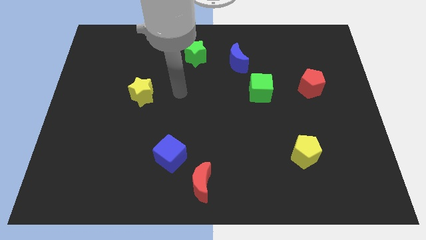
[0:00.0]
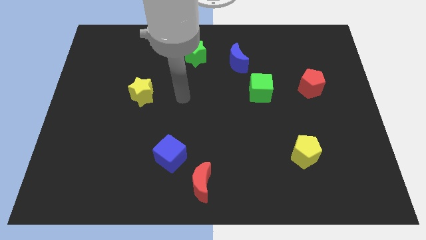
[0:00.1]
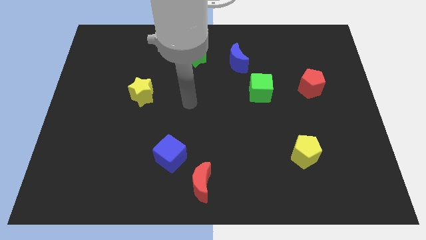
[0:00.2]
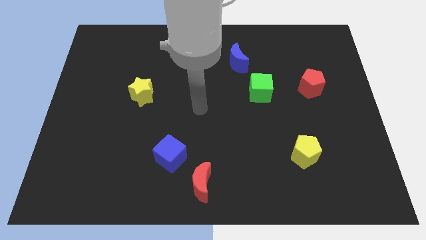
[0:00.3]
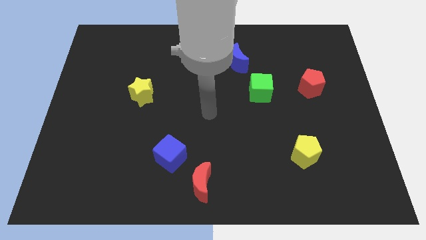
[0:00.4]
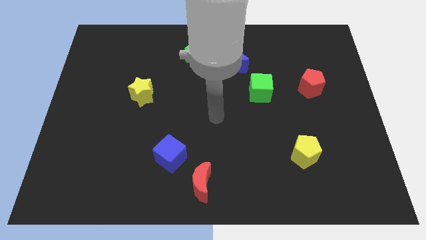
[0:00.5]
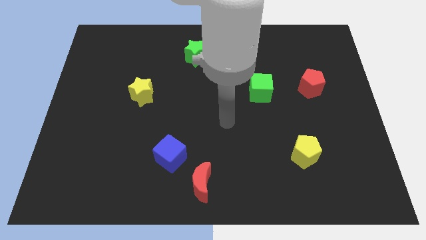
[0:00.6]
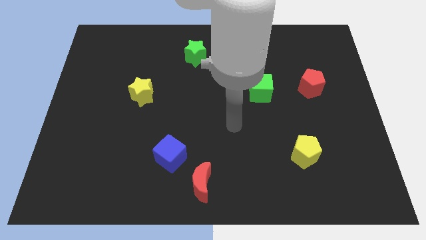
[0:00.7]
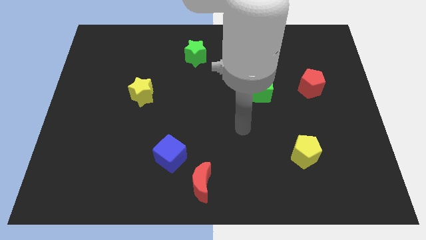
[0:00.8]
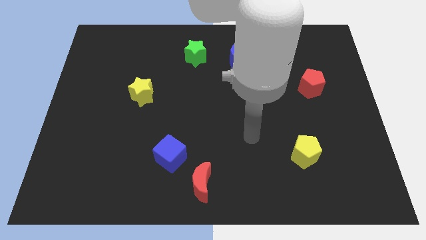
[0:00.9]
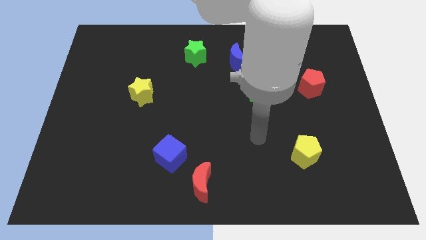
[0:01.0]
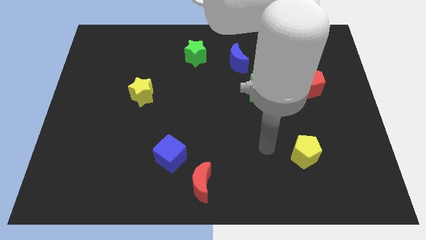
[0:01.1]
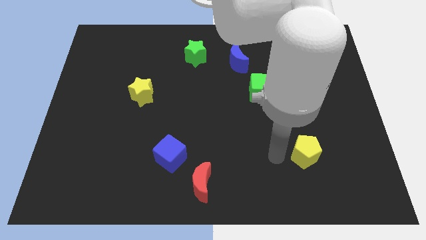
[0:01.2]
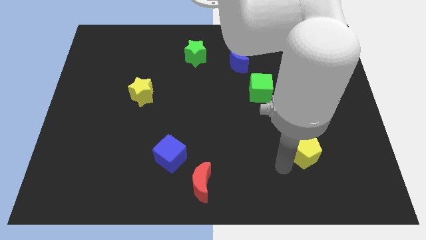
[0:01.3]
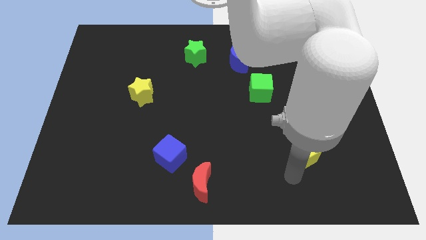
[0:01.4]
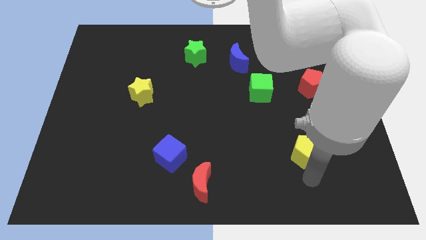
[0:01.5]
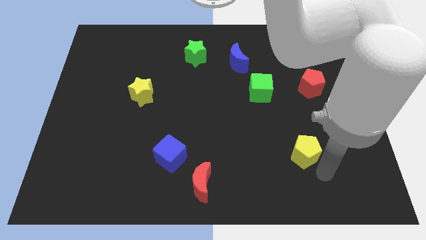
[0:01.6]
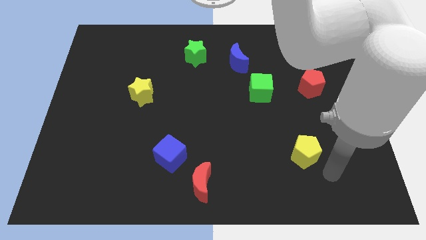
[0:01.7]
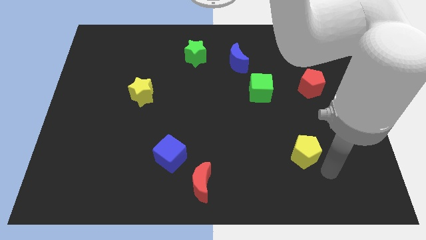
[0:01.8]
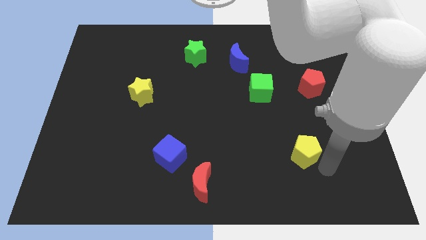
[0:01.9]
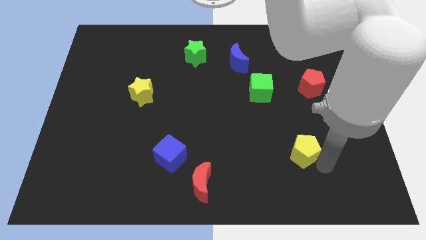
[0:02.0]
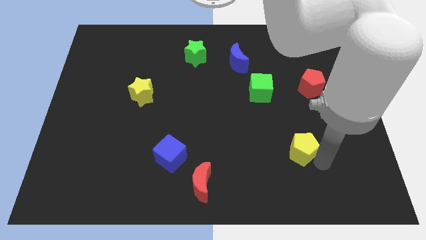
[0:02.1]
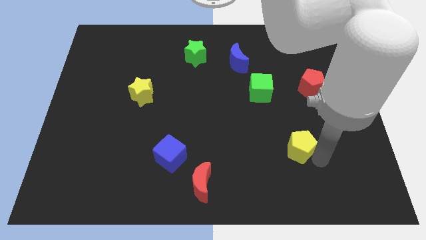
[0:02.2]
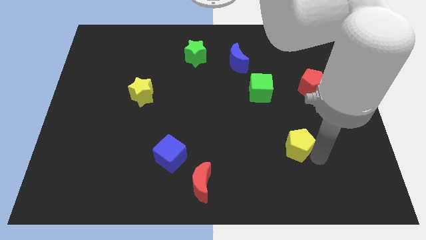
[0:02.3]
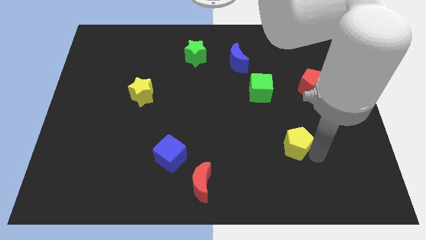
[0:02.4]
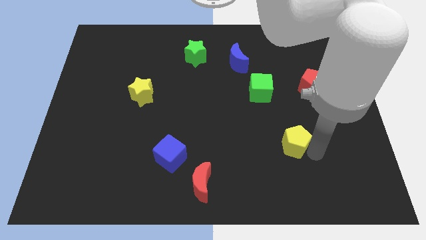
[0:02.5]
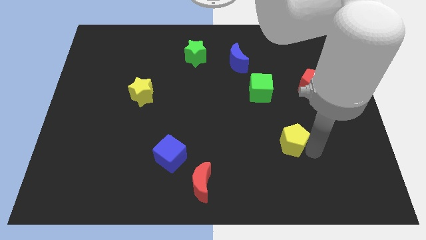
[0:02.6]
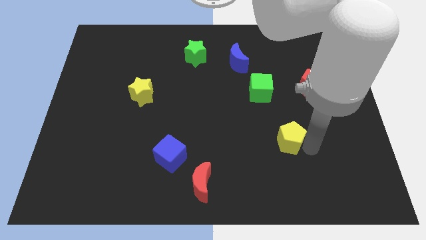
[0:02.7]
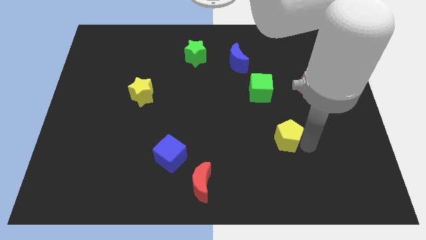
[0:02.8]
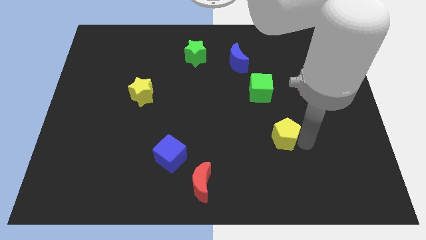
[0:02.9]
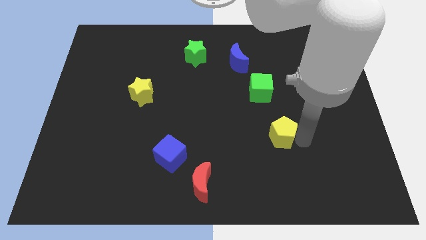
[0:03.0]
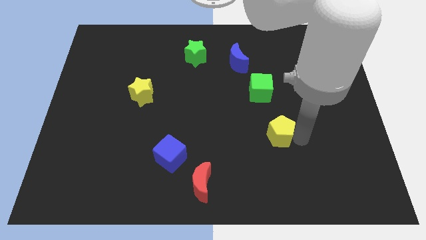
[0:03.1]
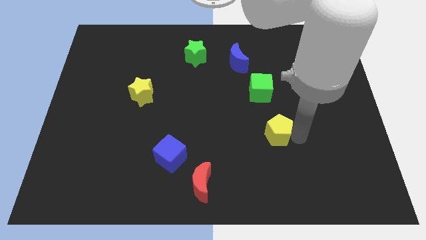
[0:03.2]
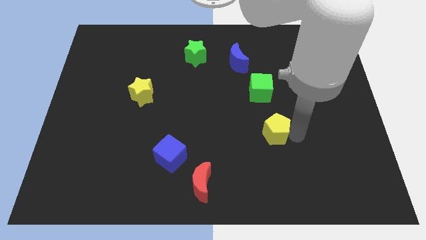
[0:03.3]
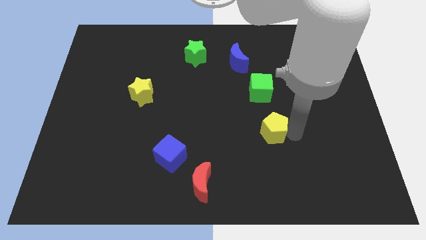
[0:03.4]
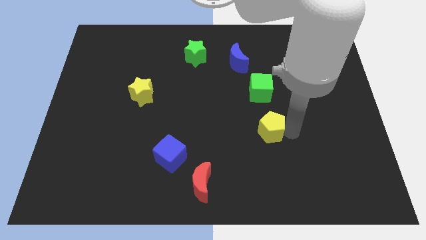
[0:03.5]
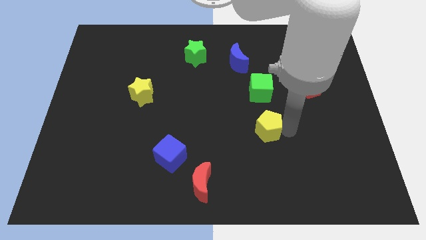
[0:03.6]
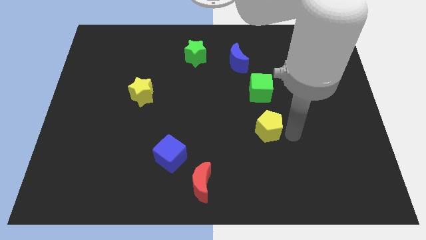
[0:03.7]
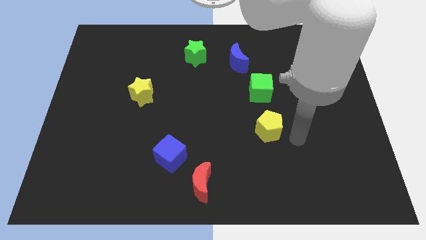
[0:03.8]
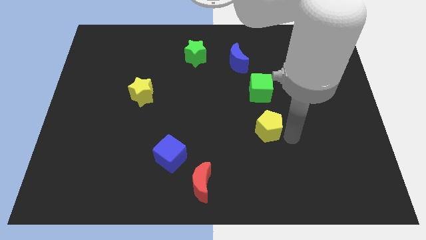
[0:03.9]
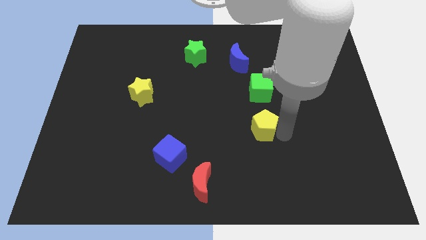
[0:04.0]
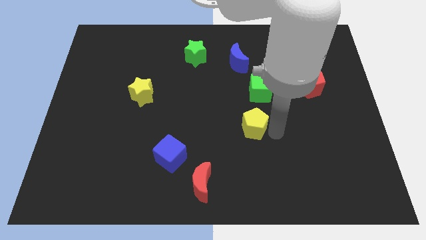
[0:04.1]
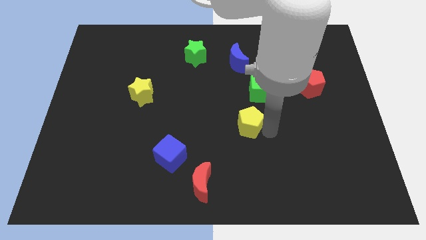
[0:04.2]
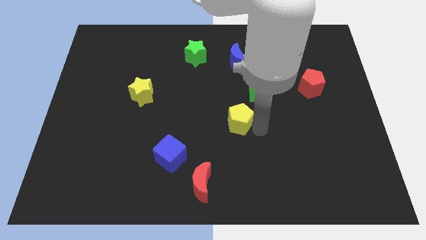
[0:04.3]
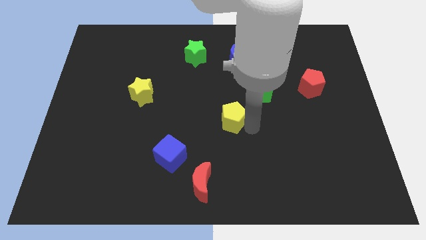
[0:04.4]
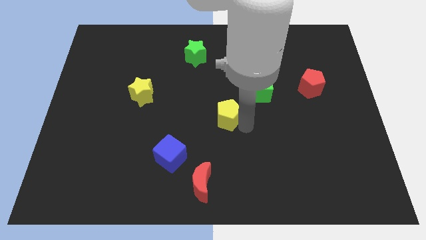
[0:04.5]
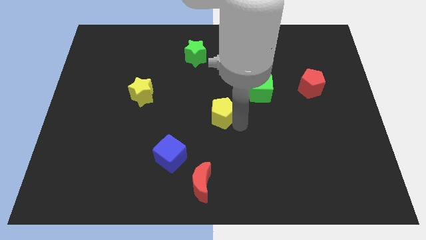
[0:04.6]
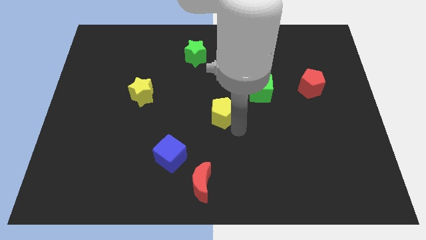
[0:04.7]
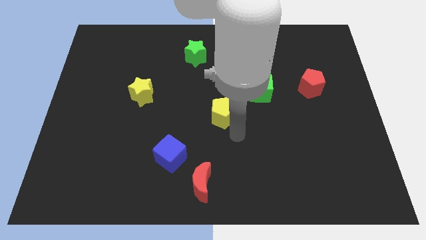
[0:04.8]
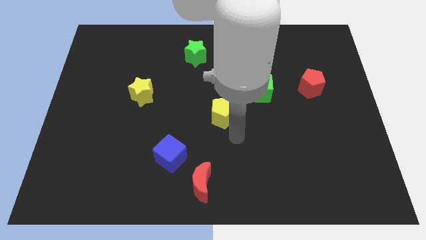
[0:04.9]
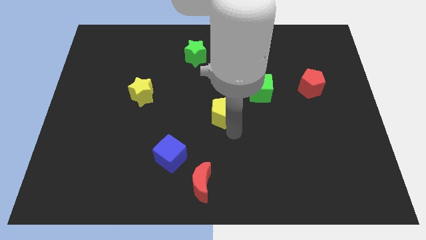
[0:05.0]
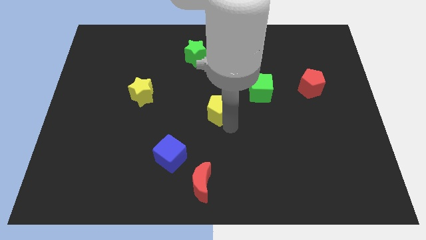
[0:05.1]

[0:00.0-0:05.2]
push the yellow pentagon up and then left

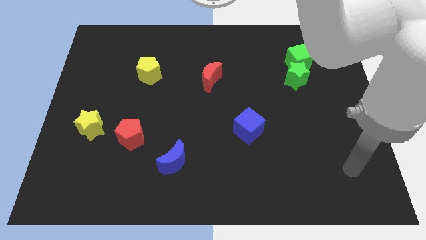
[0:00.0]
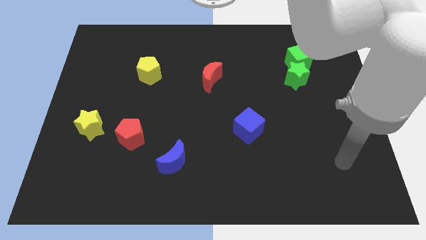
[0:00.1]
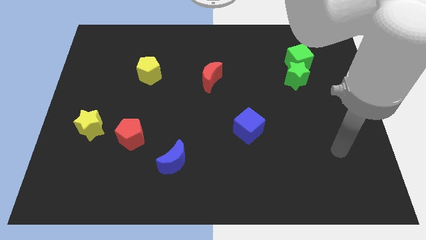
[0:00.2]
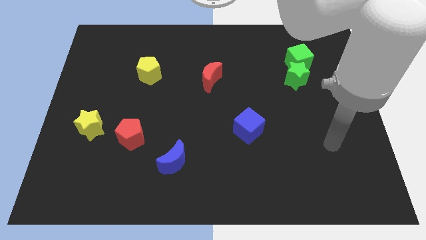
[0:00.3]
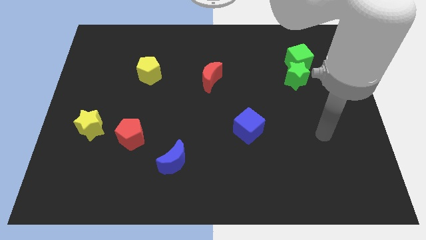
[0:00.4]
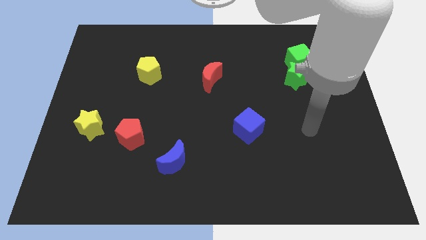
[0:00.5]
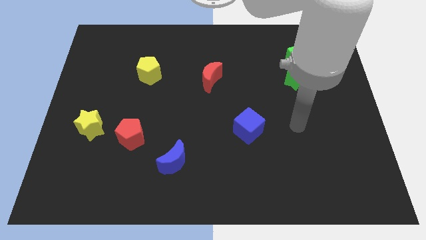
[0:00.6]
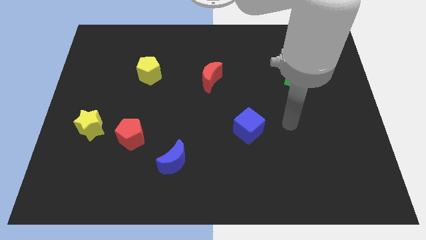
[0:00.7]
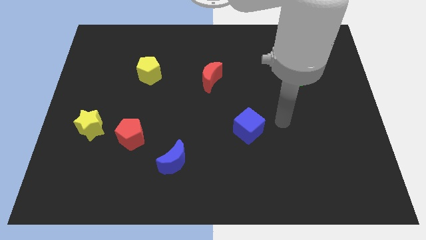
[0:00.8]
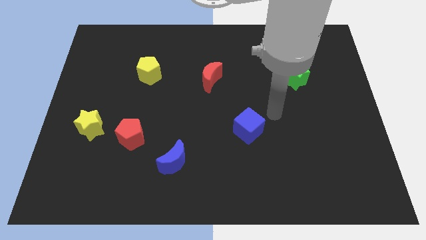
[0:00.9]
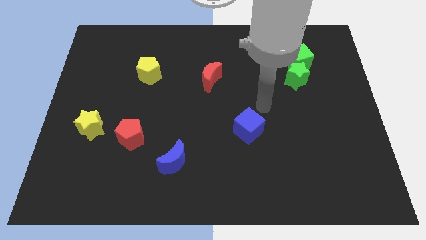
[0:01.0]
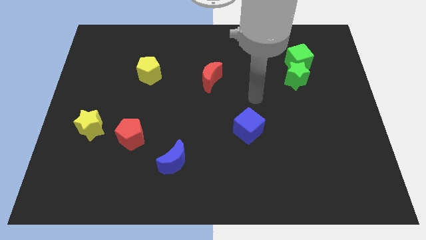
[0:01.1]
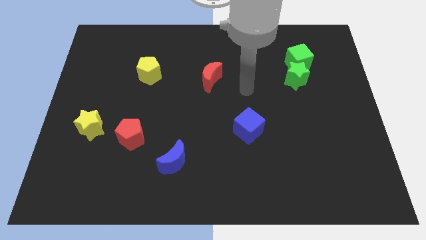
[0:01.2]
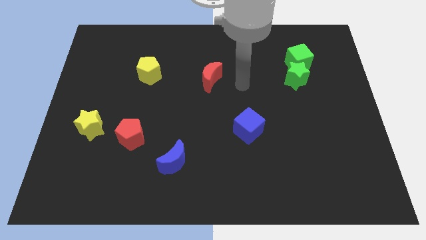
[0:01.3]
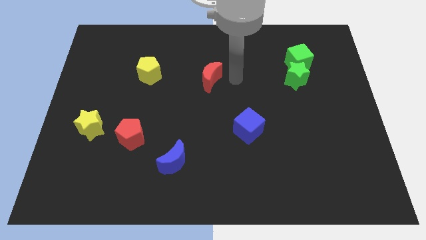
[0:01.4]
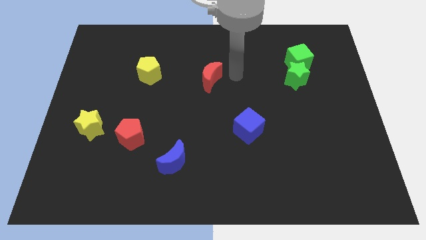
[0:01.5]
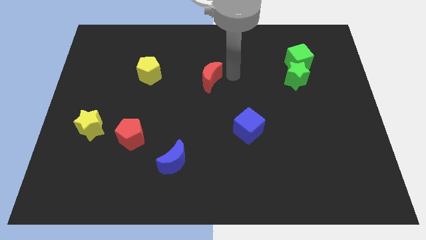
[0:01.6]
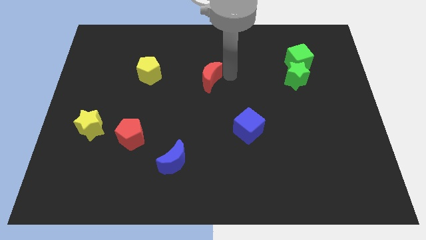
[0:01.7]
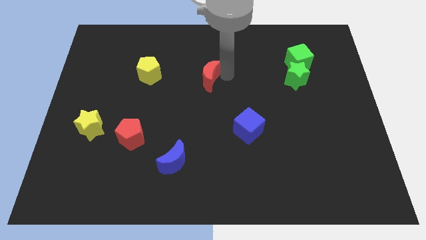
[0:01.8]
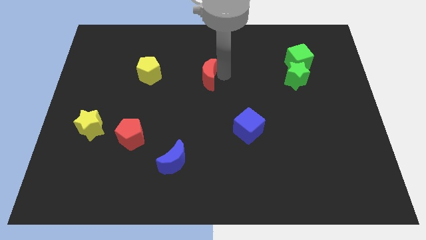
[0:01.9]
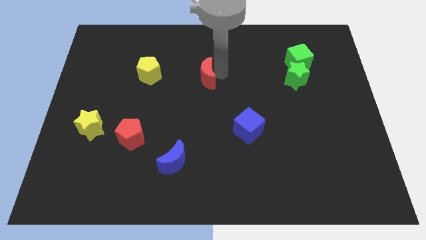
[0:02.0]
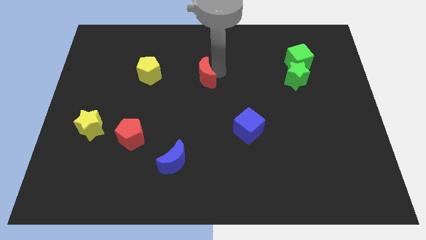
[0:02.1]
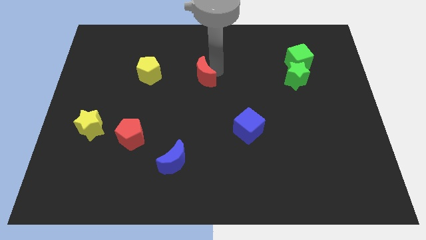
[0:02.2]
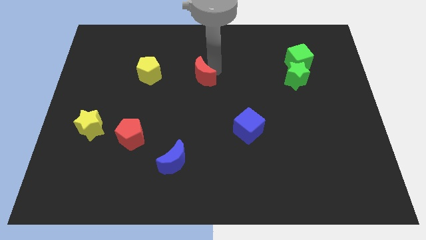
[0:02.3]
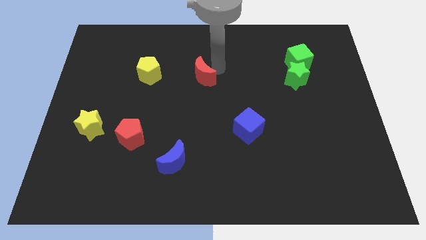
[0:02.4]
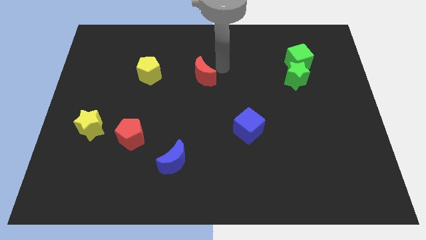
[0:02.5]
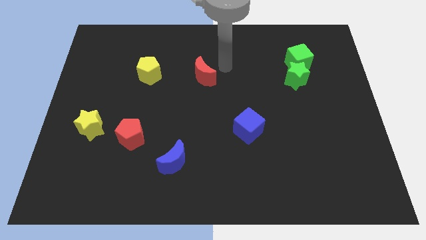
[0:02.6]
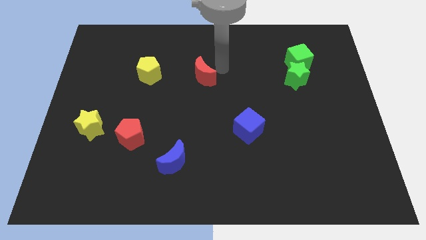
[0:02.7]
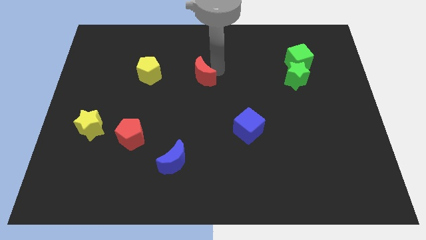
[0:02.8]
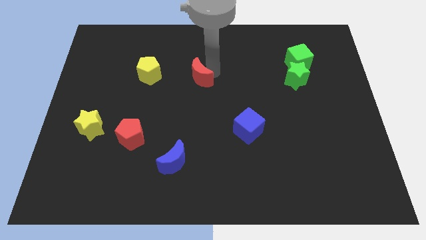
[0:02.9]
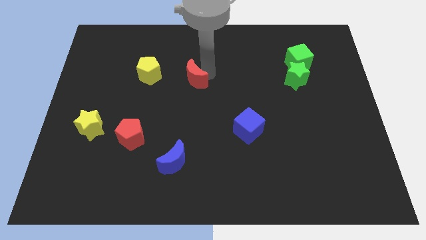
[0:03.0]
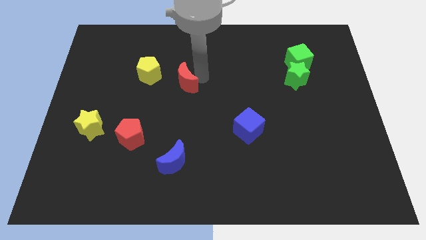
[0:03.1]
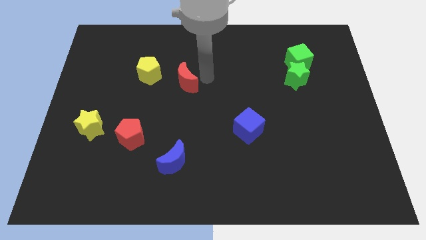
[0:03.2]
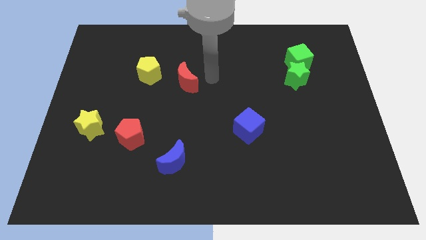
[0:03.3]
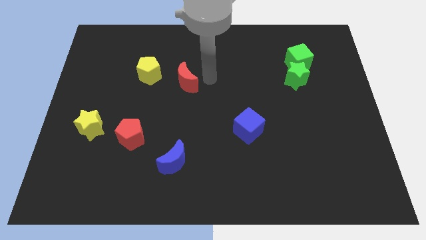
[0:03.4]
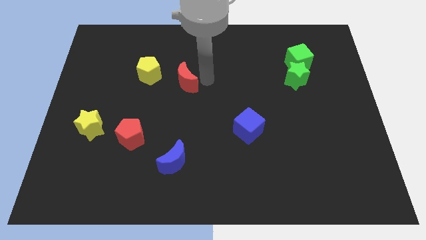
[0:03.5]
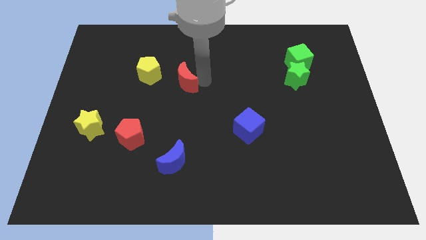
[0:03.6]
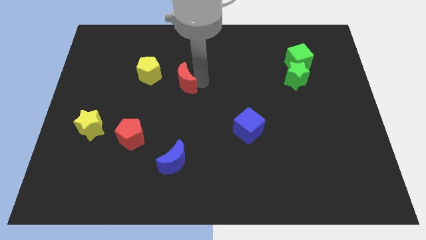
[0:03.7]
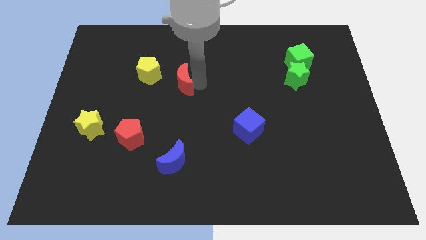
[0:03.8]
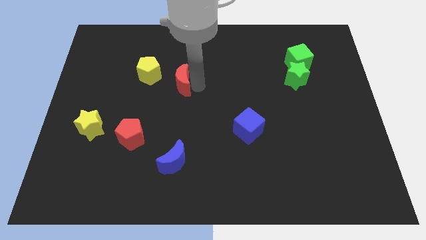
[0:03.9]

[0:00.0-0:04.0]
slightly push the red moon left
